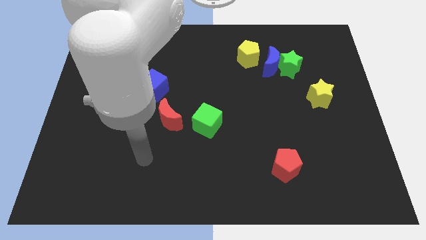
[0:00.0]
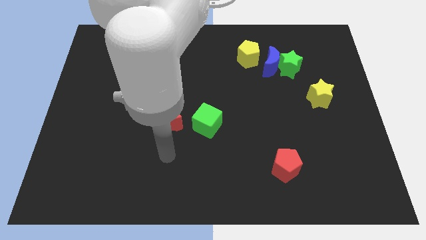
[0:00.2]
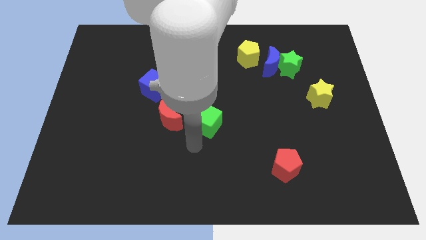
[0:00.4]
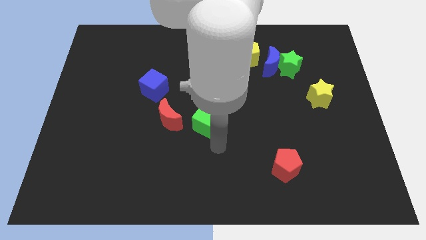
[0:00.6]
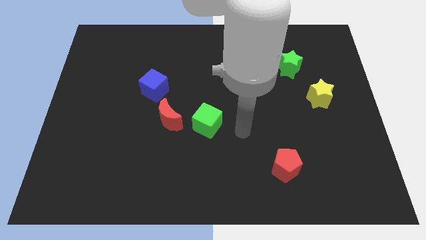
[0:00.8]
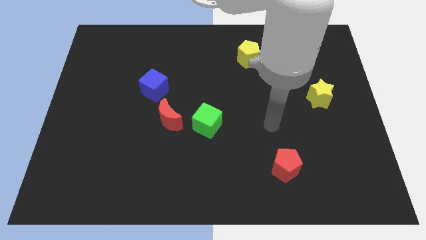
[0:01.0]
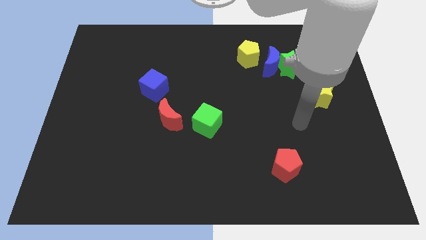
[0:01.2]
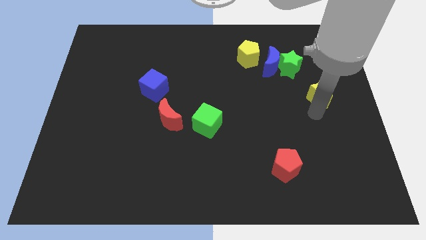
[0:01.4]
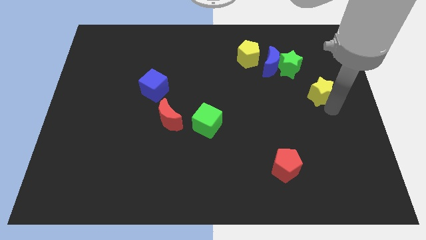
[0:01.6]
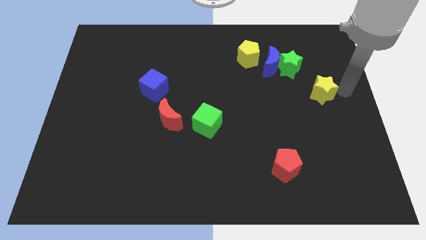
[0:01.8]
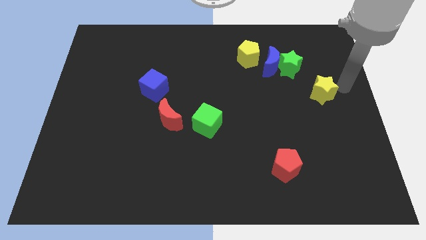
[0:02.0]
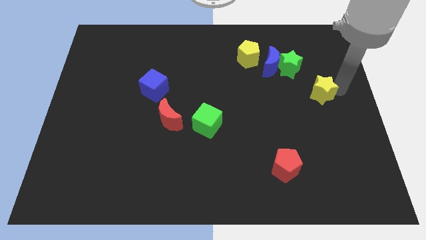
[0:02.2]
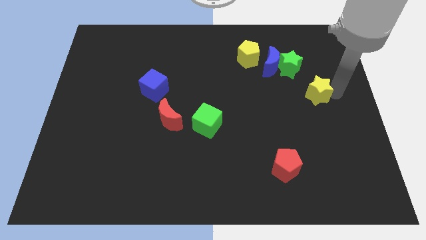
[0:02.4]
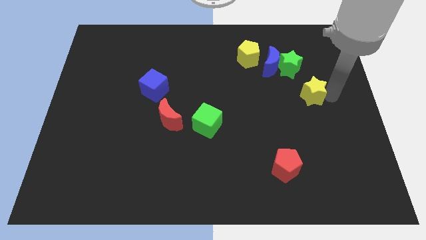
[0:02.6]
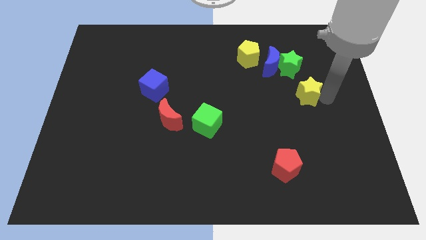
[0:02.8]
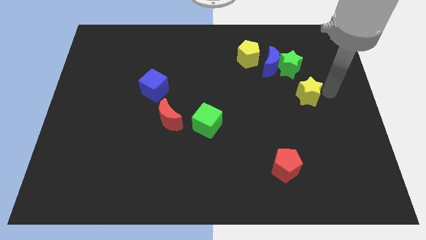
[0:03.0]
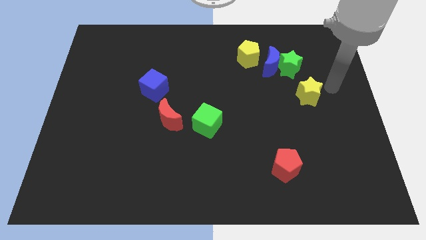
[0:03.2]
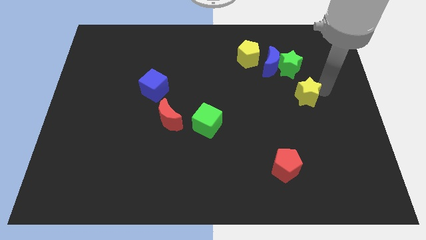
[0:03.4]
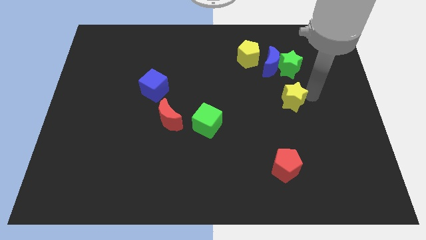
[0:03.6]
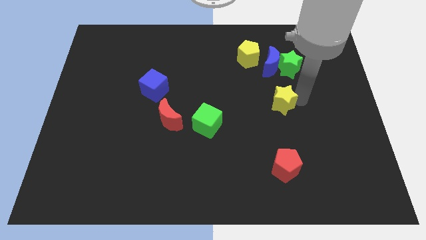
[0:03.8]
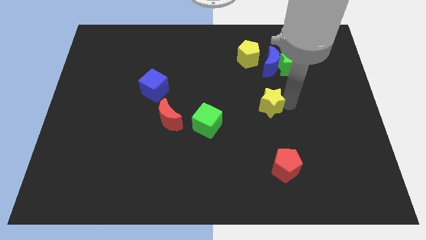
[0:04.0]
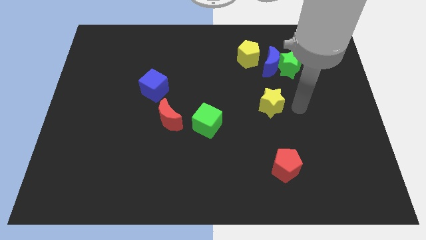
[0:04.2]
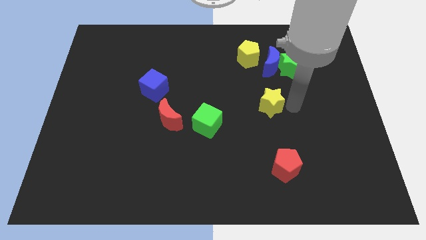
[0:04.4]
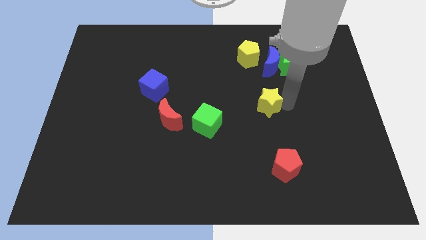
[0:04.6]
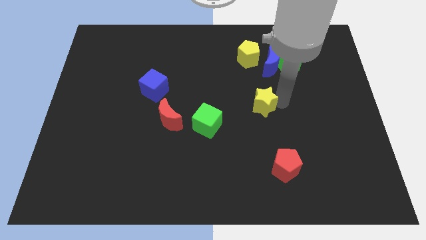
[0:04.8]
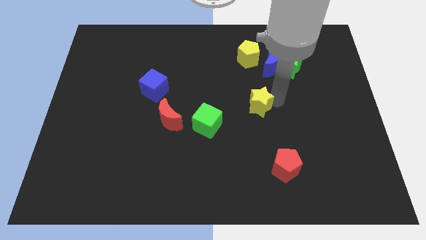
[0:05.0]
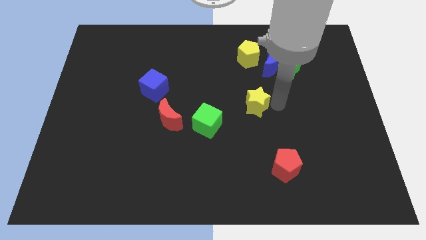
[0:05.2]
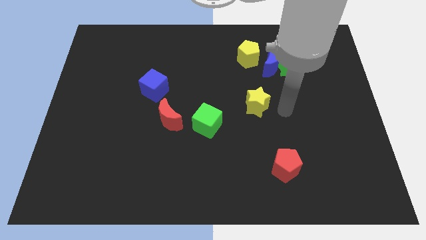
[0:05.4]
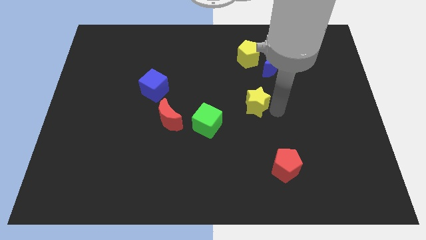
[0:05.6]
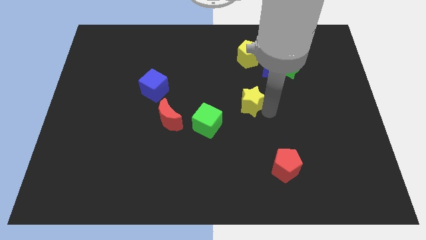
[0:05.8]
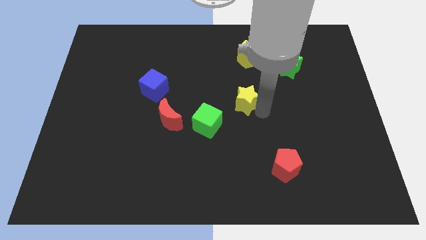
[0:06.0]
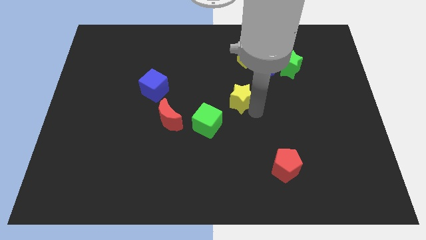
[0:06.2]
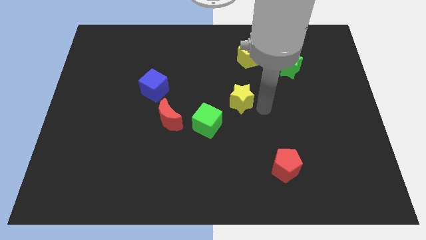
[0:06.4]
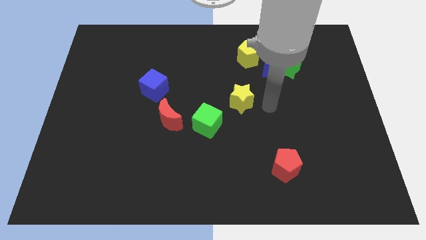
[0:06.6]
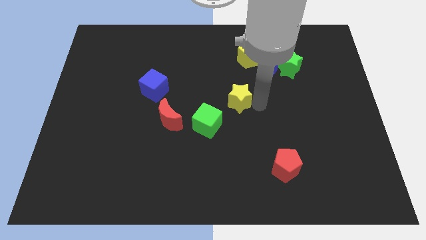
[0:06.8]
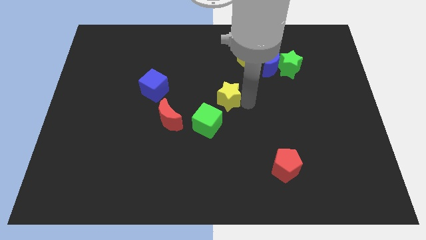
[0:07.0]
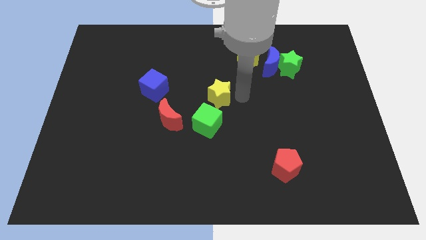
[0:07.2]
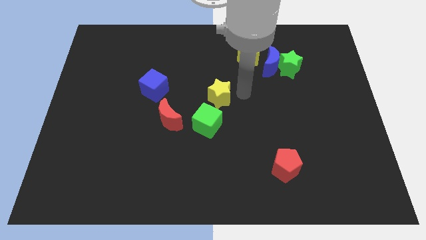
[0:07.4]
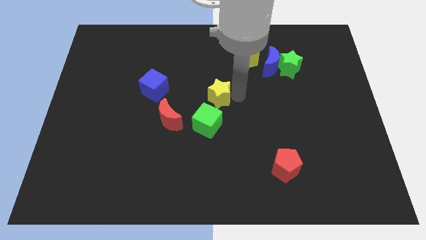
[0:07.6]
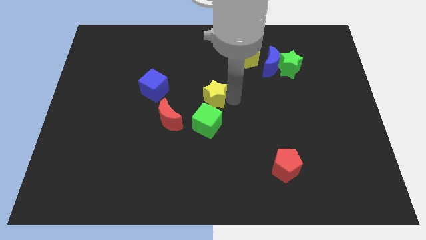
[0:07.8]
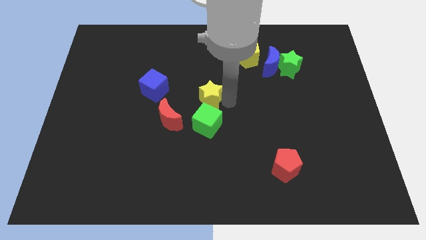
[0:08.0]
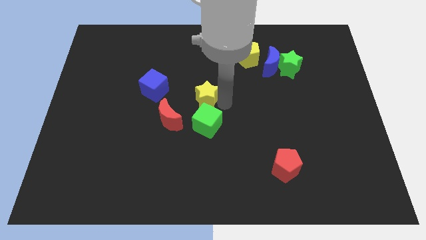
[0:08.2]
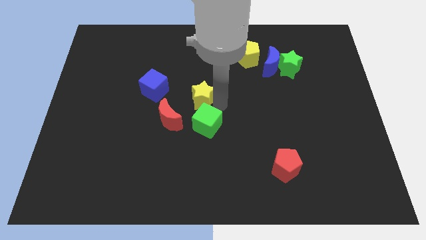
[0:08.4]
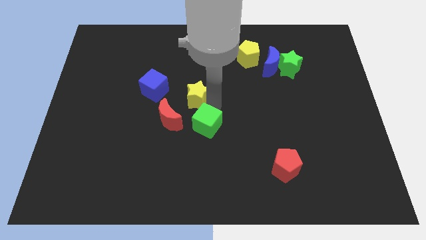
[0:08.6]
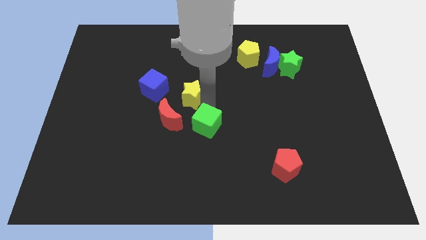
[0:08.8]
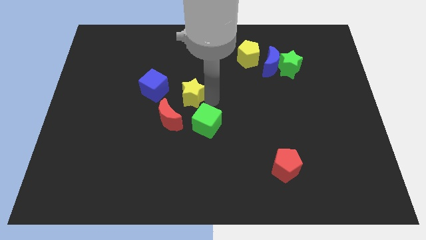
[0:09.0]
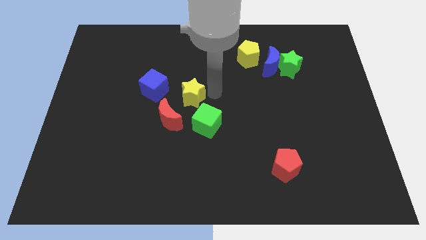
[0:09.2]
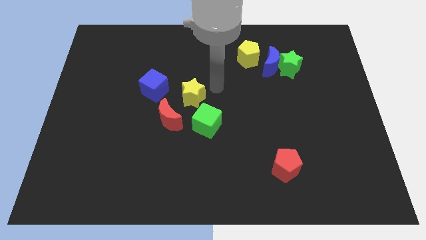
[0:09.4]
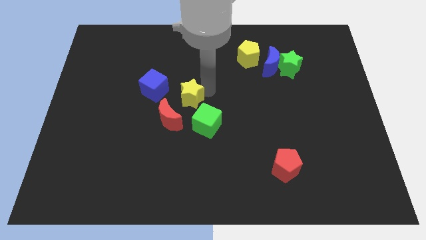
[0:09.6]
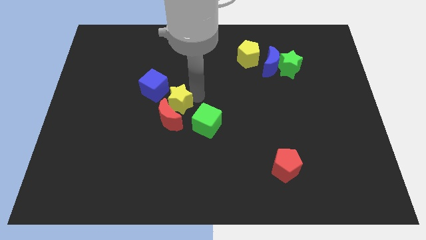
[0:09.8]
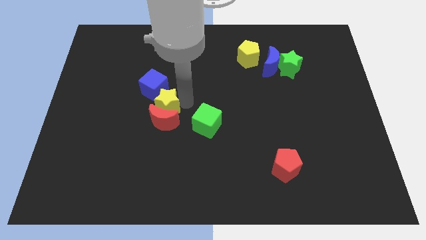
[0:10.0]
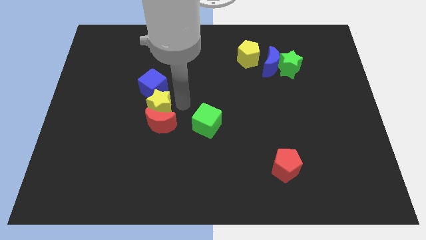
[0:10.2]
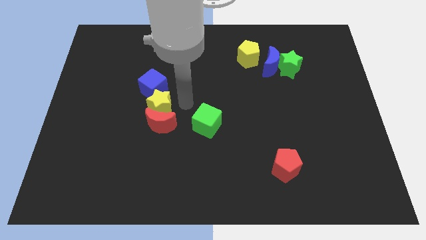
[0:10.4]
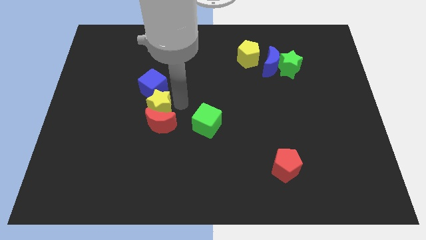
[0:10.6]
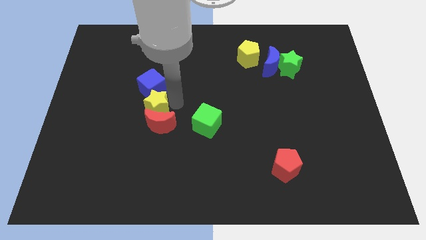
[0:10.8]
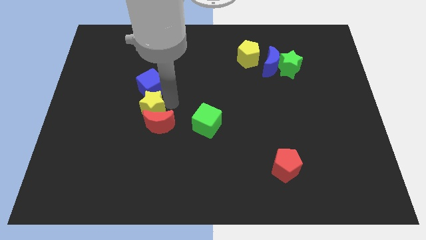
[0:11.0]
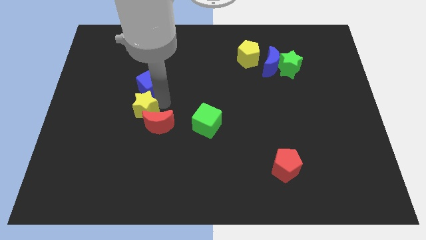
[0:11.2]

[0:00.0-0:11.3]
put the yellow star to the left of the red moon

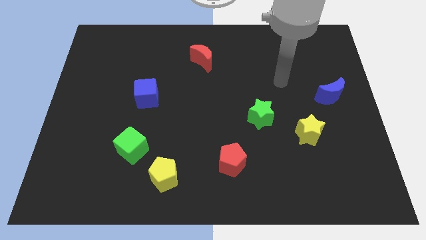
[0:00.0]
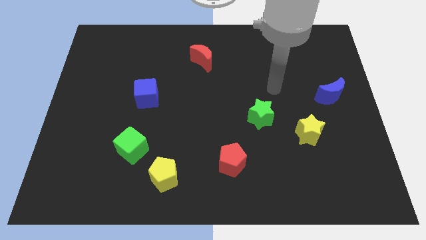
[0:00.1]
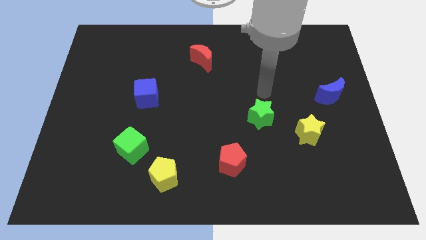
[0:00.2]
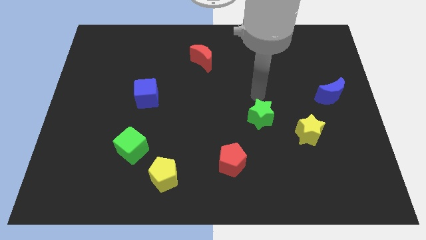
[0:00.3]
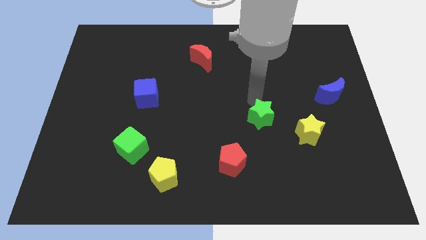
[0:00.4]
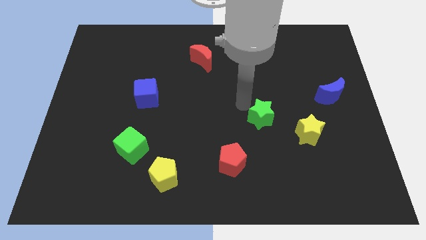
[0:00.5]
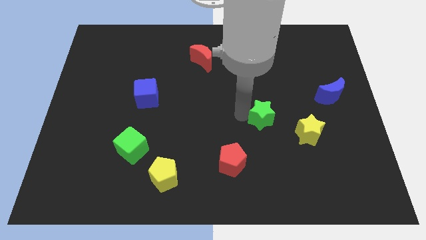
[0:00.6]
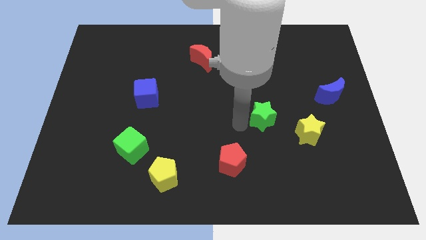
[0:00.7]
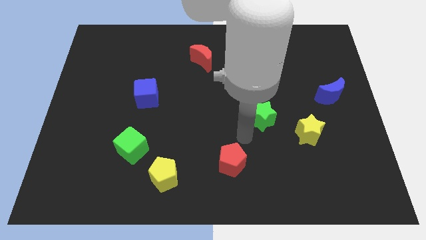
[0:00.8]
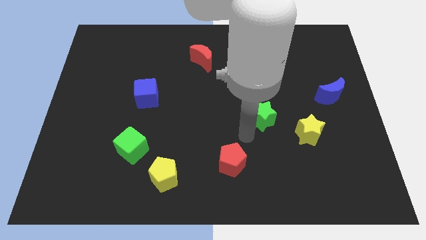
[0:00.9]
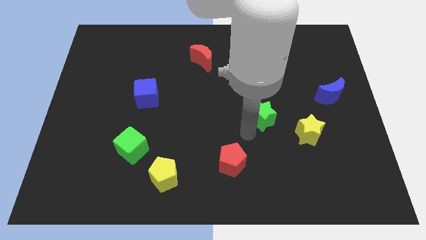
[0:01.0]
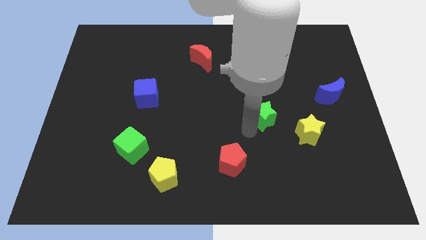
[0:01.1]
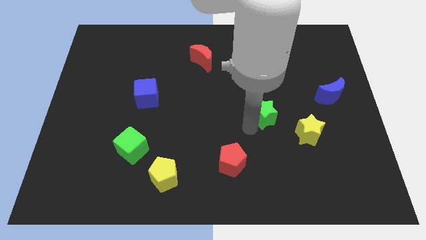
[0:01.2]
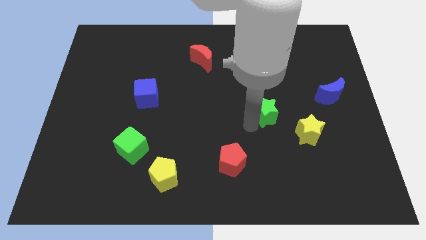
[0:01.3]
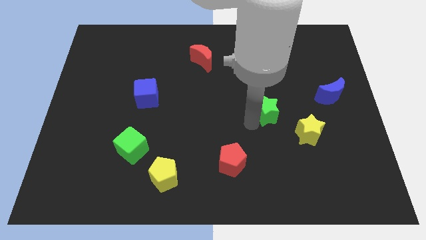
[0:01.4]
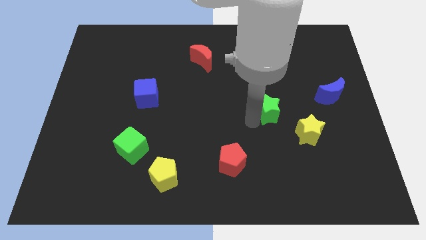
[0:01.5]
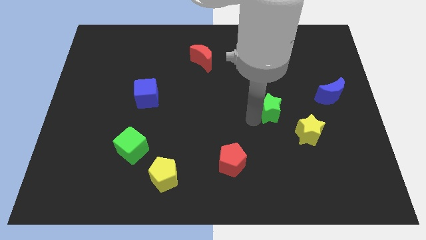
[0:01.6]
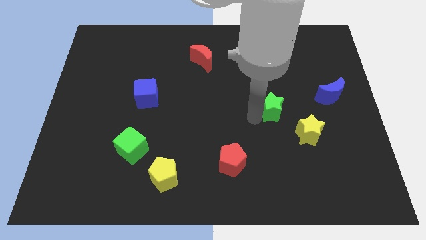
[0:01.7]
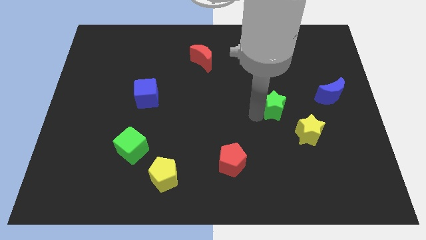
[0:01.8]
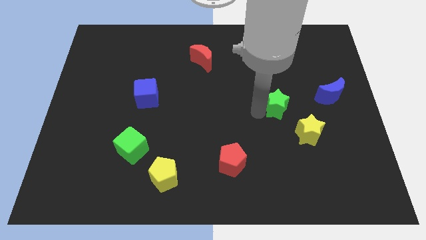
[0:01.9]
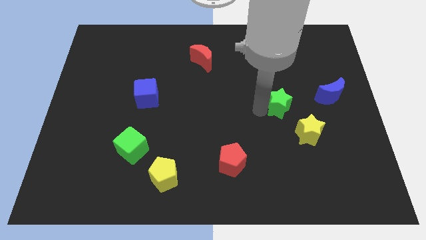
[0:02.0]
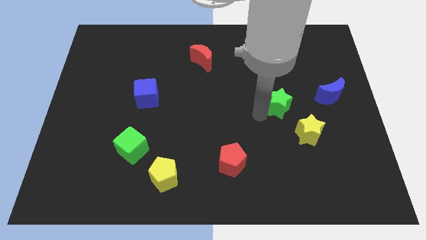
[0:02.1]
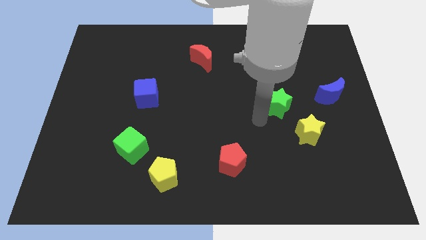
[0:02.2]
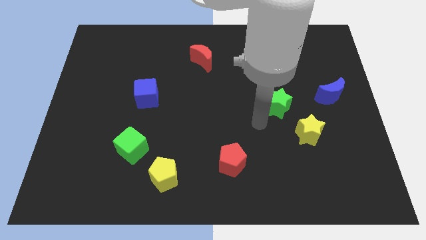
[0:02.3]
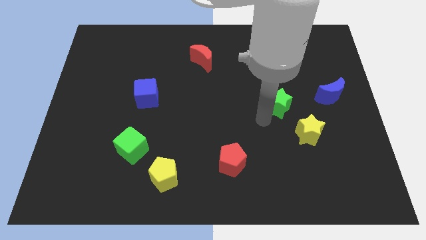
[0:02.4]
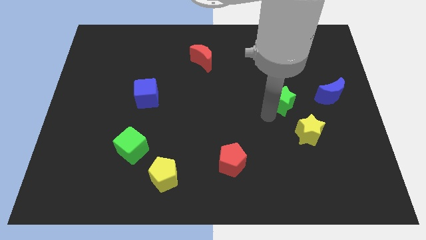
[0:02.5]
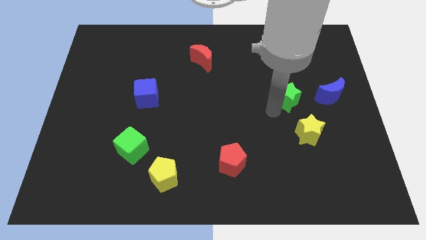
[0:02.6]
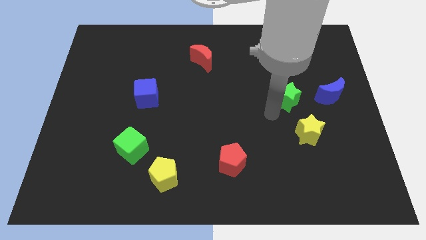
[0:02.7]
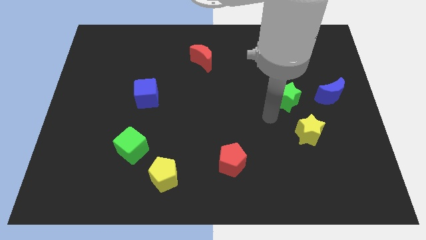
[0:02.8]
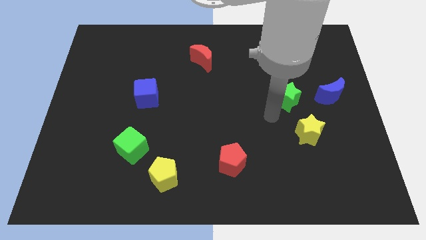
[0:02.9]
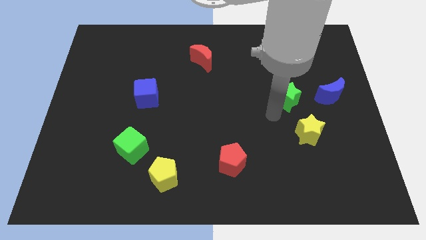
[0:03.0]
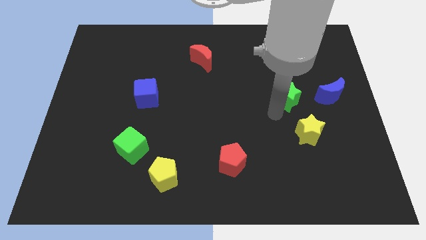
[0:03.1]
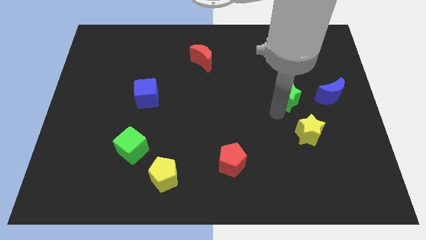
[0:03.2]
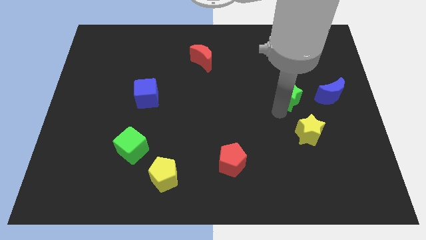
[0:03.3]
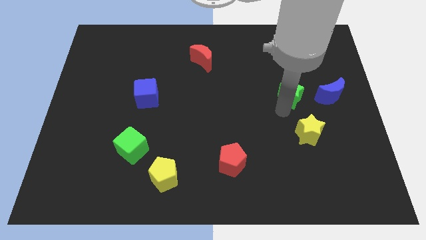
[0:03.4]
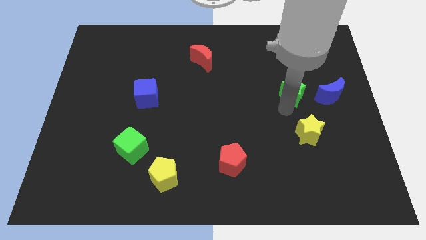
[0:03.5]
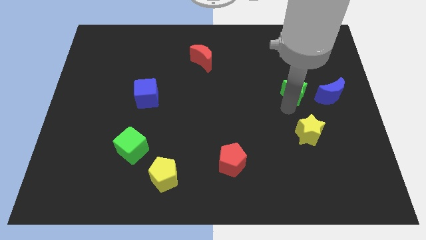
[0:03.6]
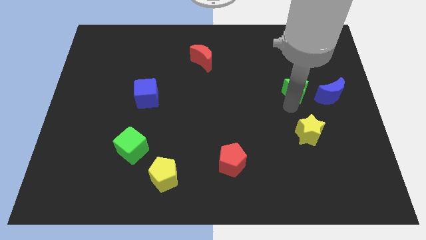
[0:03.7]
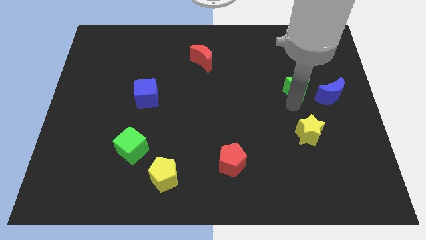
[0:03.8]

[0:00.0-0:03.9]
put the green star to the top left of the blue moon
